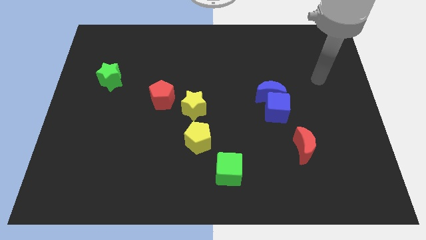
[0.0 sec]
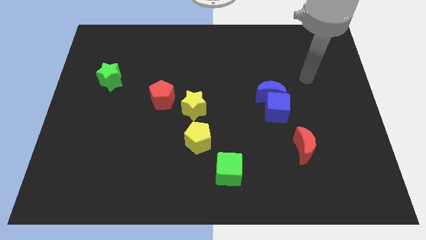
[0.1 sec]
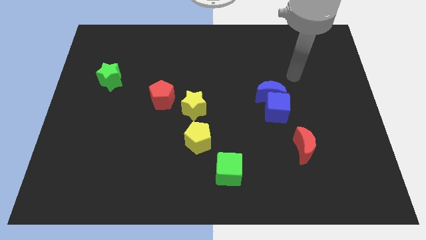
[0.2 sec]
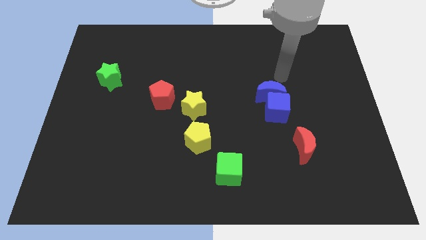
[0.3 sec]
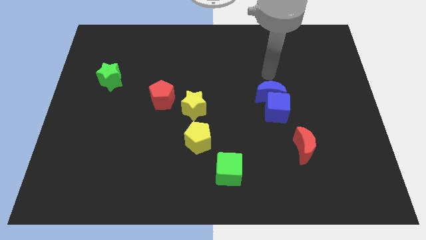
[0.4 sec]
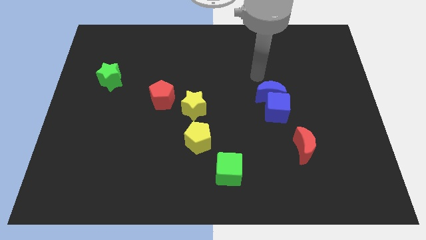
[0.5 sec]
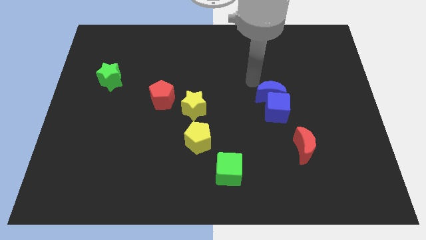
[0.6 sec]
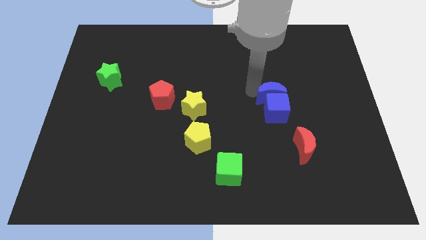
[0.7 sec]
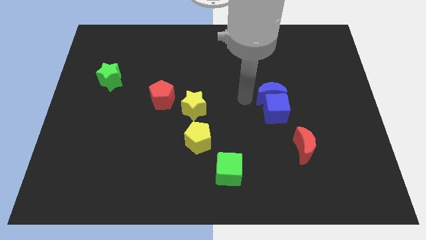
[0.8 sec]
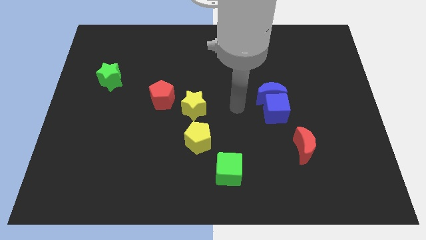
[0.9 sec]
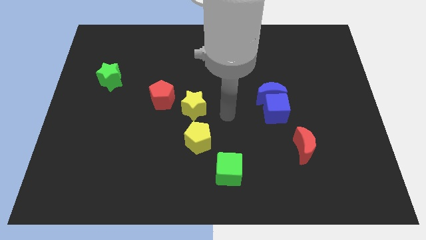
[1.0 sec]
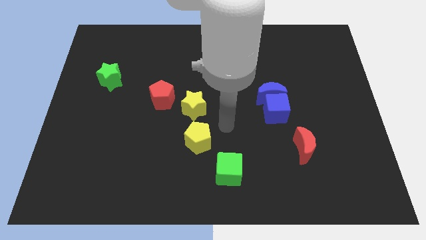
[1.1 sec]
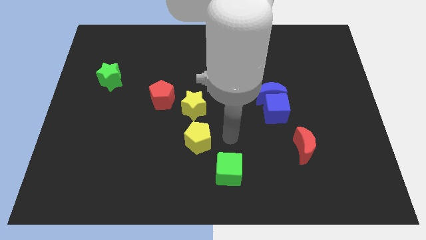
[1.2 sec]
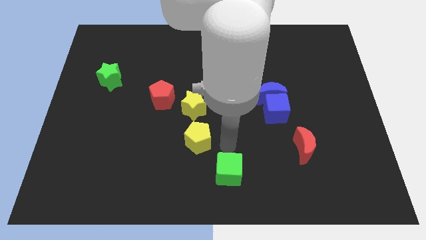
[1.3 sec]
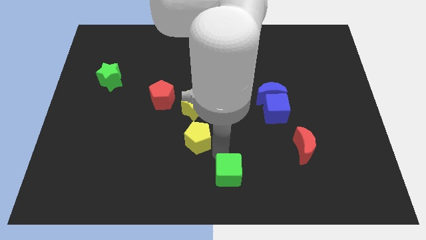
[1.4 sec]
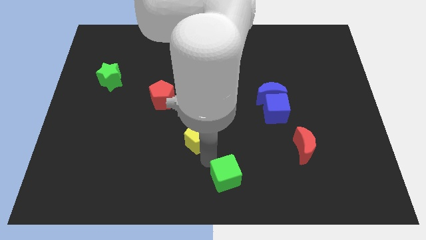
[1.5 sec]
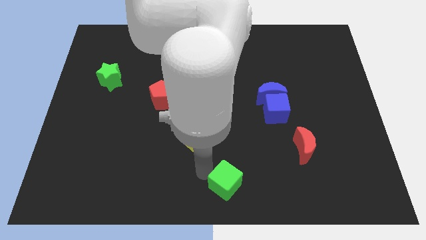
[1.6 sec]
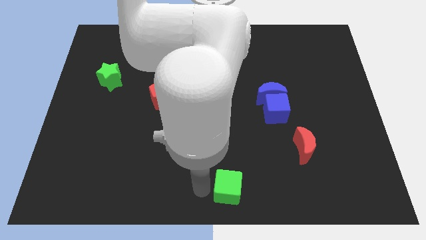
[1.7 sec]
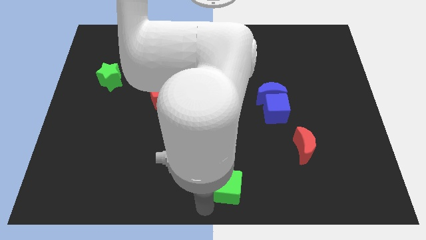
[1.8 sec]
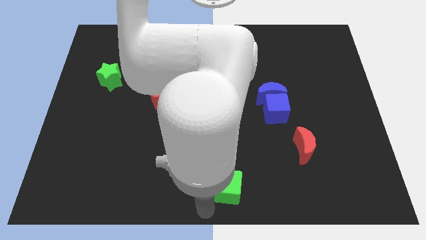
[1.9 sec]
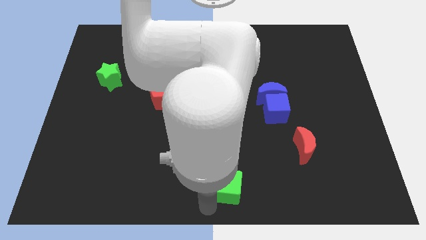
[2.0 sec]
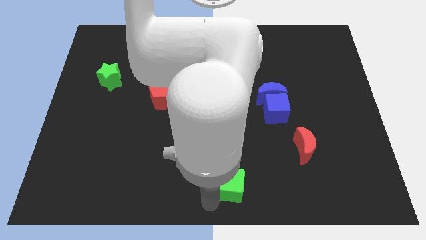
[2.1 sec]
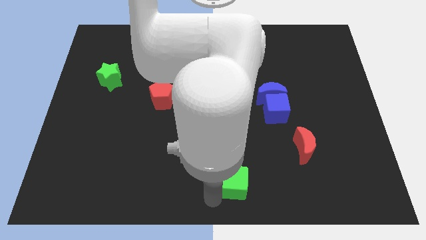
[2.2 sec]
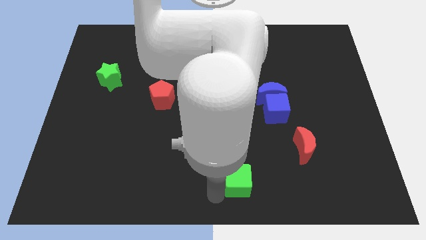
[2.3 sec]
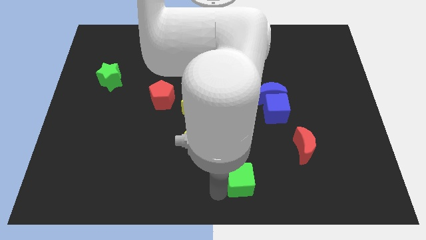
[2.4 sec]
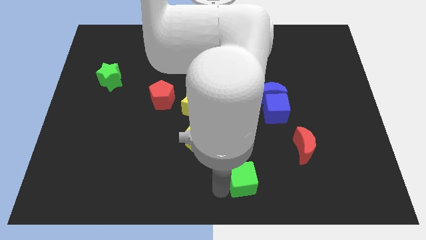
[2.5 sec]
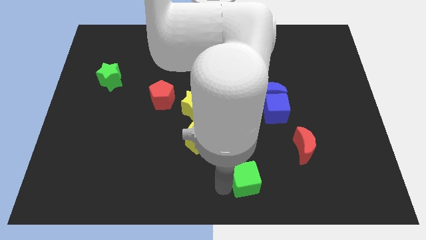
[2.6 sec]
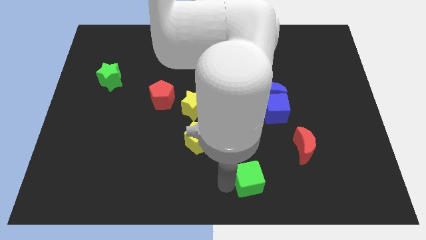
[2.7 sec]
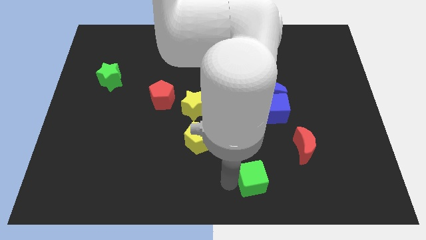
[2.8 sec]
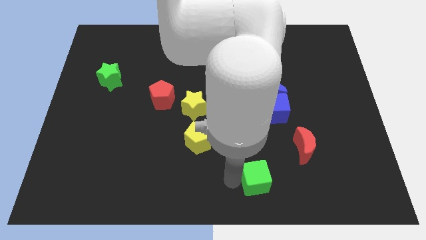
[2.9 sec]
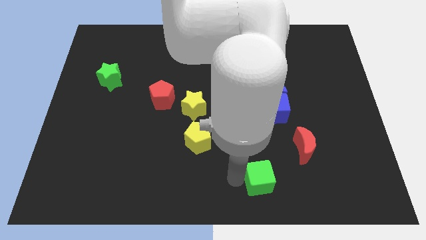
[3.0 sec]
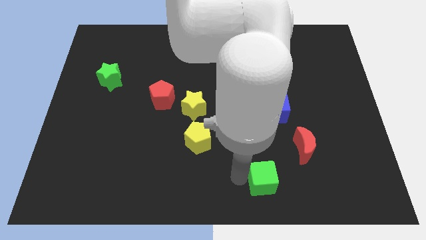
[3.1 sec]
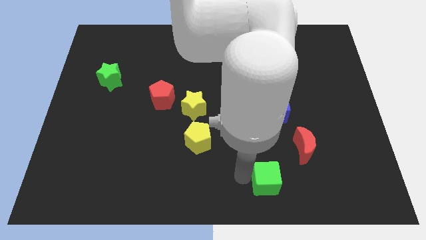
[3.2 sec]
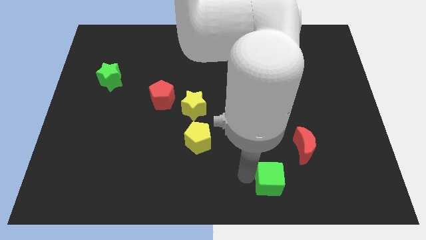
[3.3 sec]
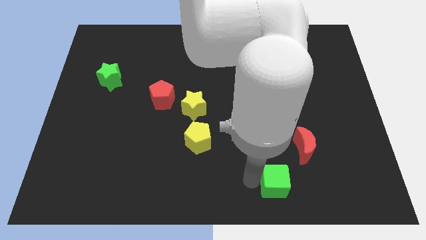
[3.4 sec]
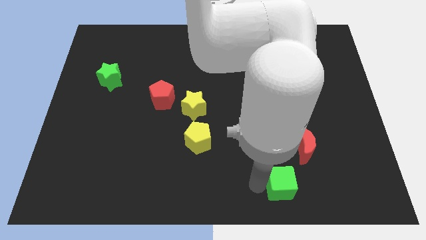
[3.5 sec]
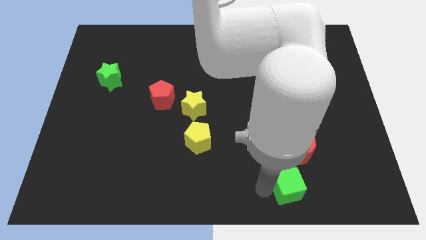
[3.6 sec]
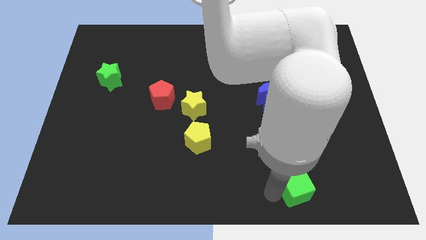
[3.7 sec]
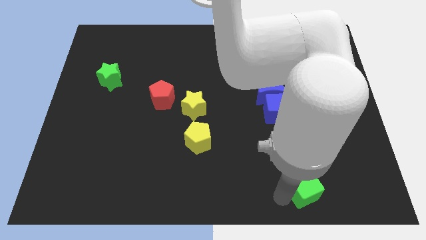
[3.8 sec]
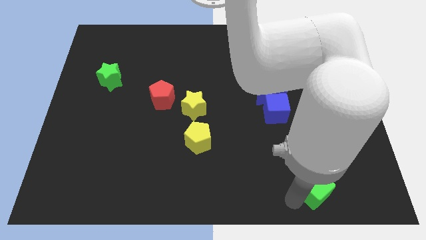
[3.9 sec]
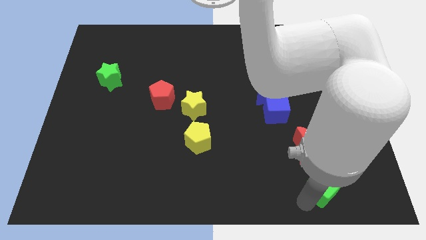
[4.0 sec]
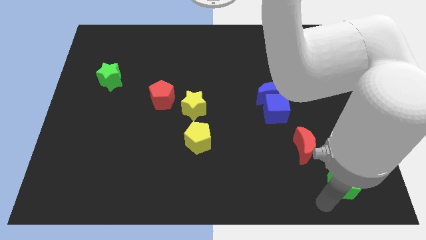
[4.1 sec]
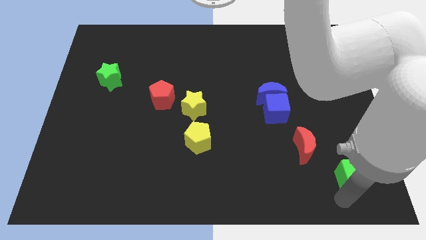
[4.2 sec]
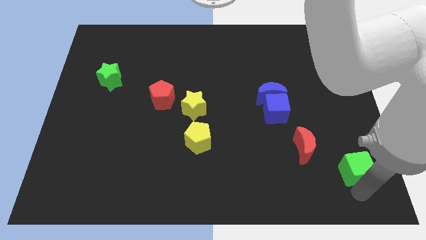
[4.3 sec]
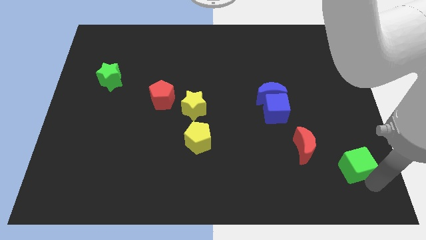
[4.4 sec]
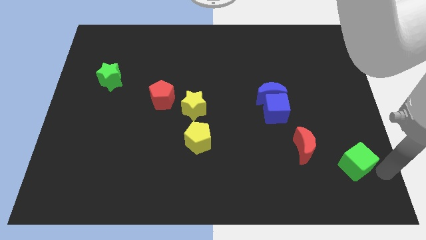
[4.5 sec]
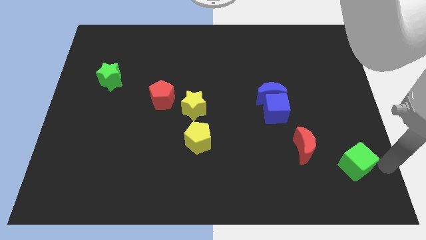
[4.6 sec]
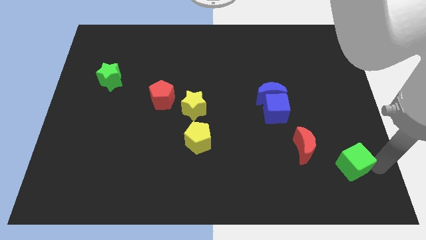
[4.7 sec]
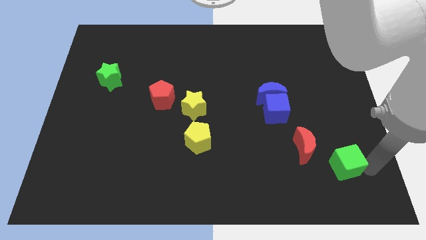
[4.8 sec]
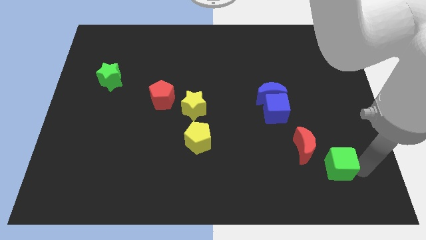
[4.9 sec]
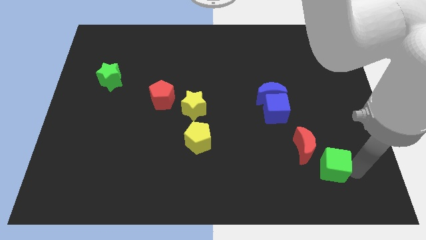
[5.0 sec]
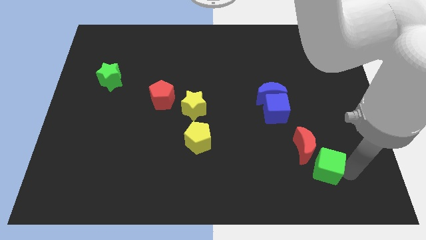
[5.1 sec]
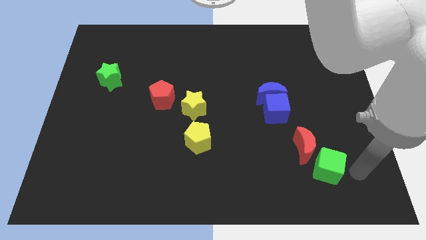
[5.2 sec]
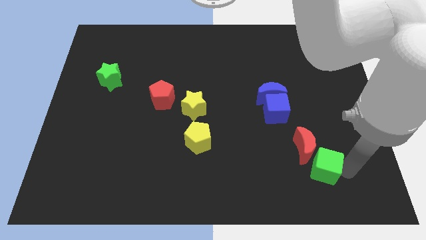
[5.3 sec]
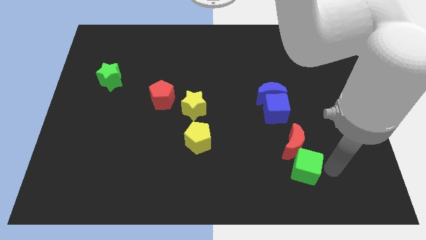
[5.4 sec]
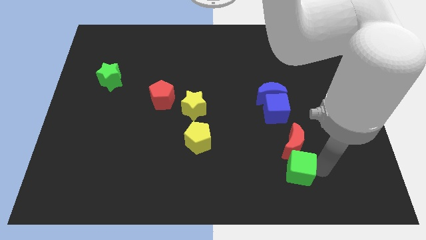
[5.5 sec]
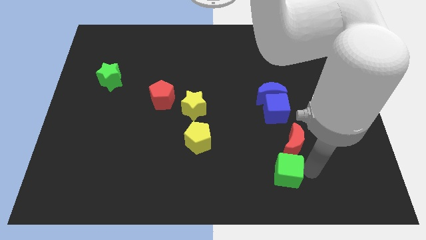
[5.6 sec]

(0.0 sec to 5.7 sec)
put the green cube to the bottom side of the blue cube
